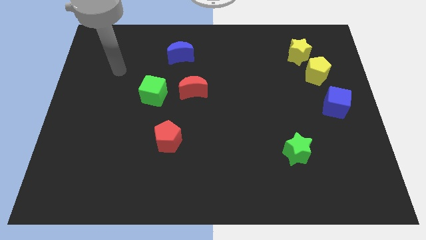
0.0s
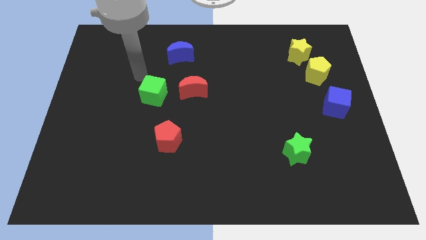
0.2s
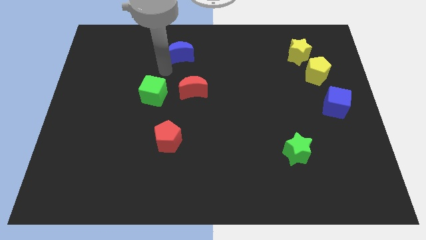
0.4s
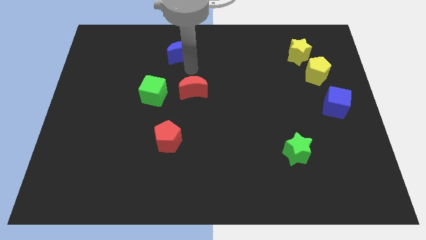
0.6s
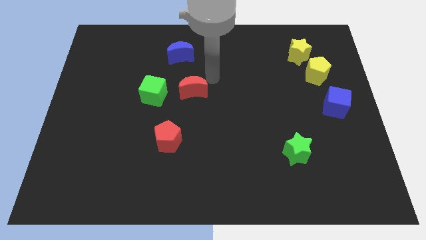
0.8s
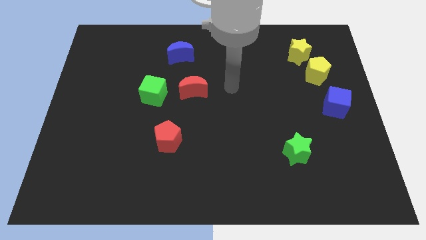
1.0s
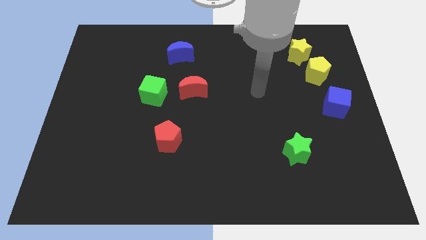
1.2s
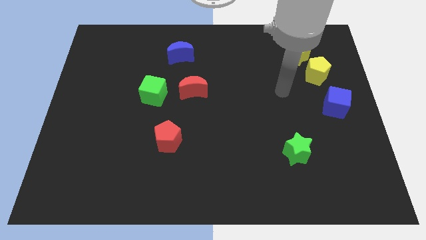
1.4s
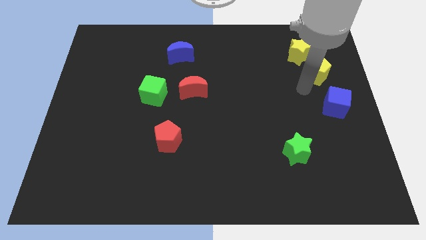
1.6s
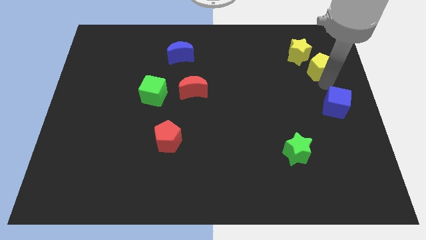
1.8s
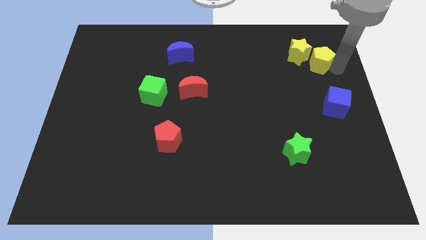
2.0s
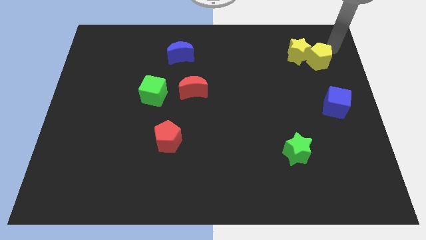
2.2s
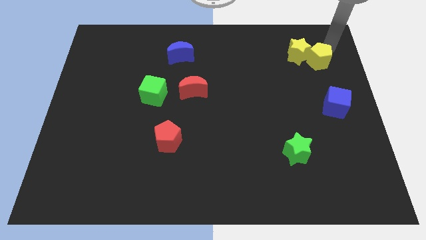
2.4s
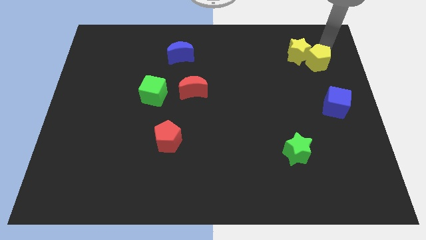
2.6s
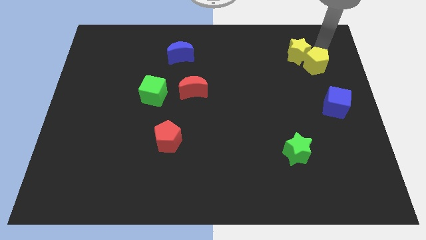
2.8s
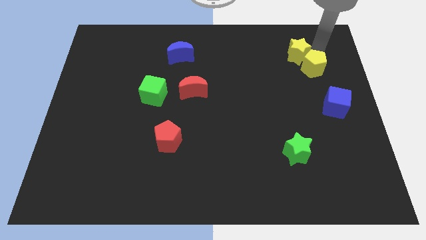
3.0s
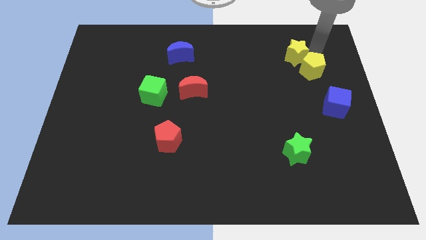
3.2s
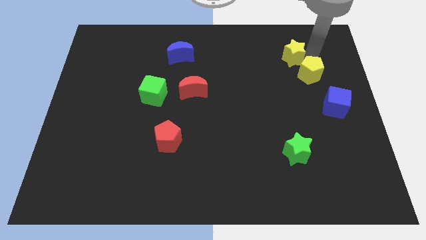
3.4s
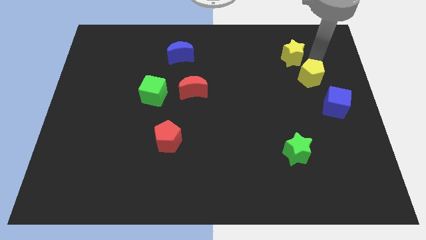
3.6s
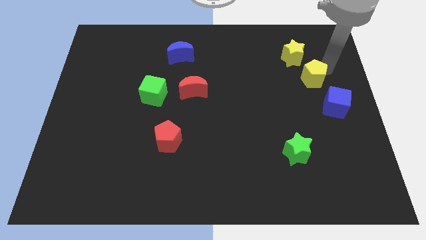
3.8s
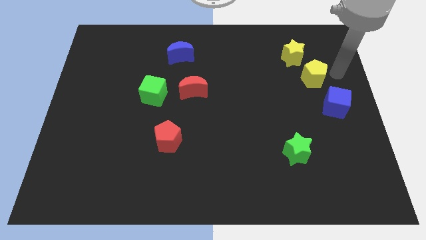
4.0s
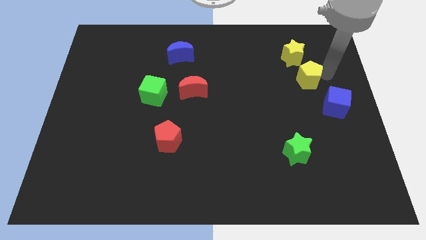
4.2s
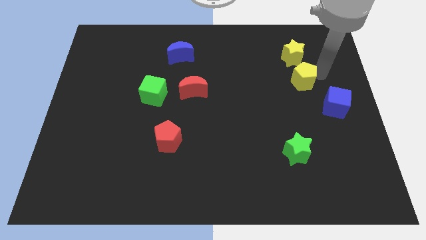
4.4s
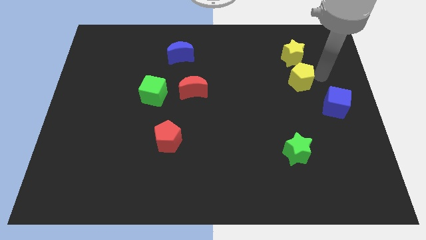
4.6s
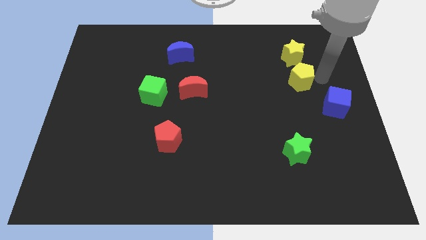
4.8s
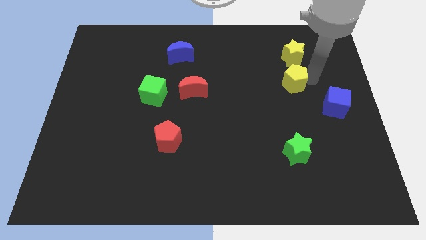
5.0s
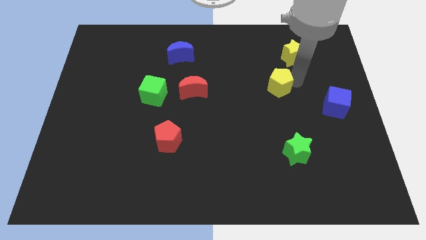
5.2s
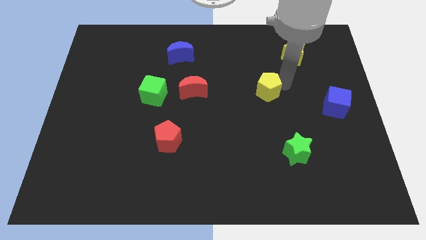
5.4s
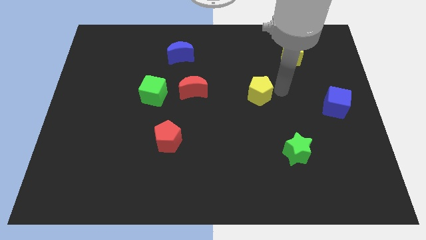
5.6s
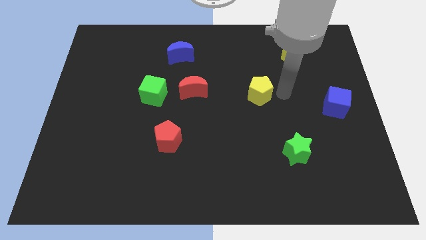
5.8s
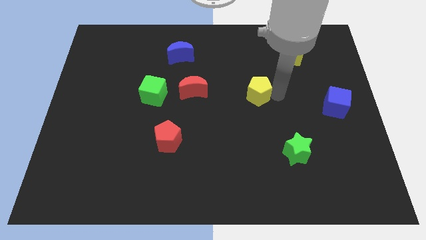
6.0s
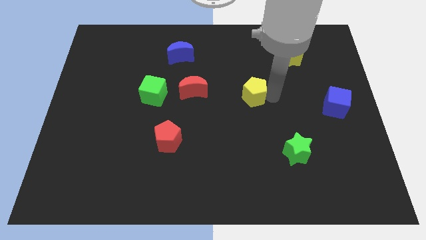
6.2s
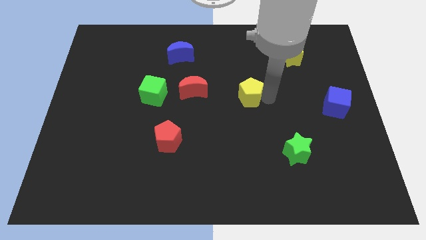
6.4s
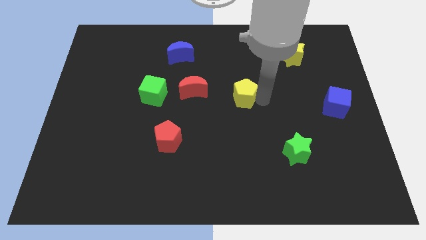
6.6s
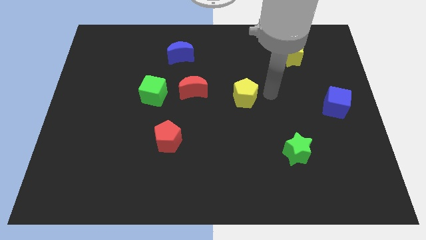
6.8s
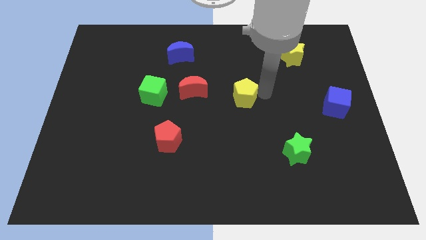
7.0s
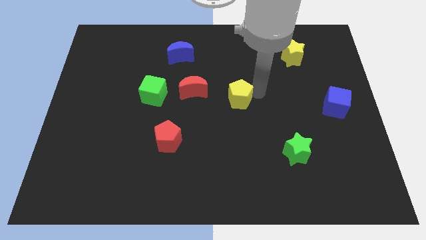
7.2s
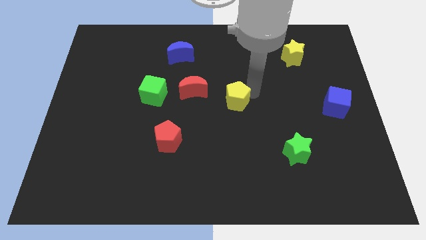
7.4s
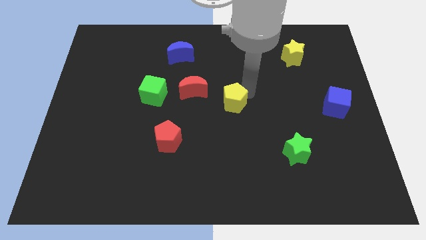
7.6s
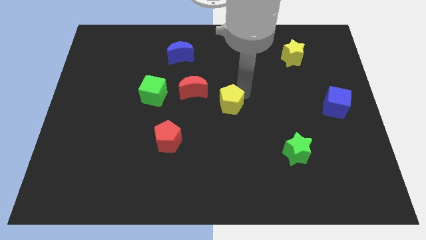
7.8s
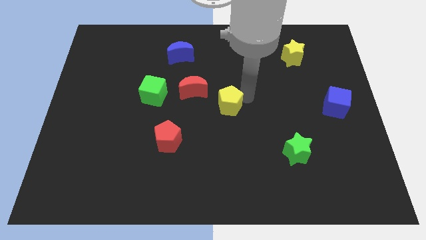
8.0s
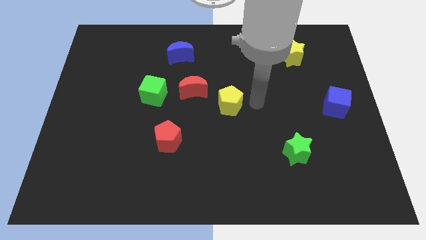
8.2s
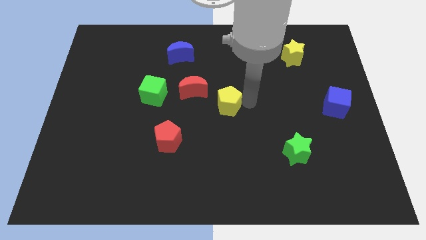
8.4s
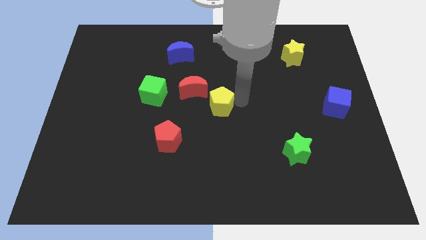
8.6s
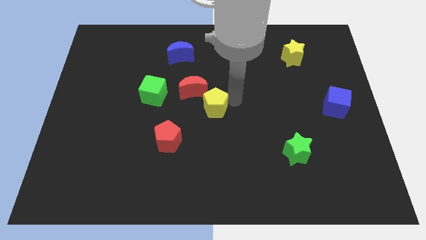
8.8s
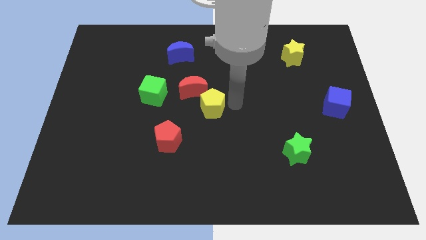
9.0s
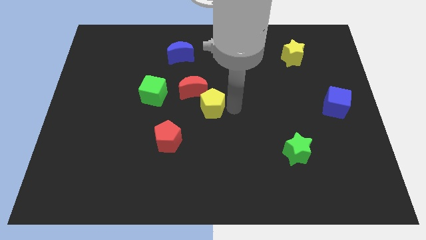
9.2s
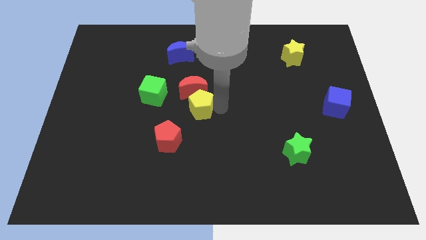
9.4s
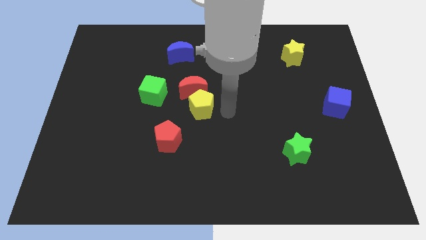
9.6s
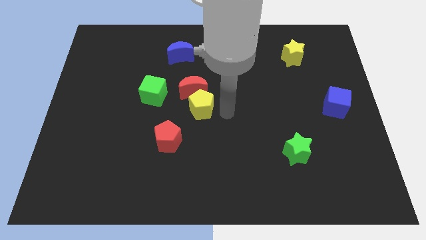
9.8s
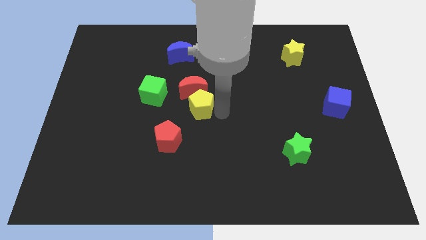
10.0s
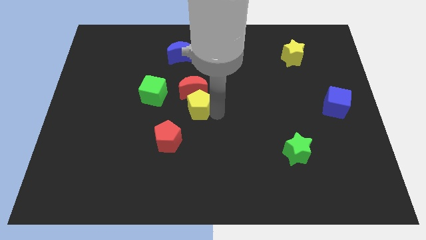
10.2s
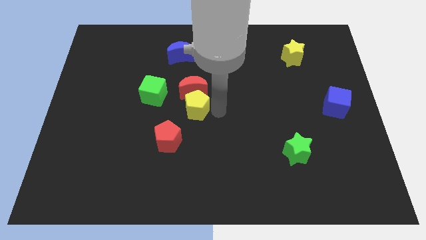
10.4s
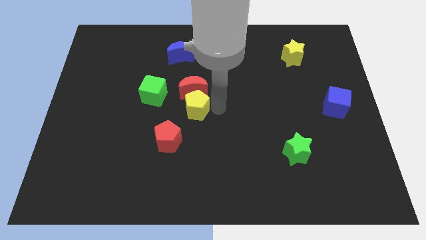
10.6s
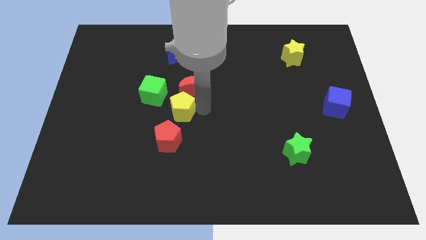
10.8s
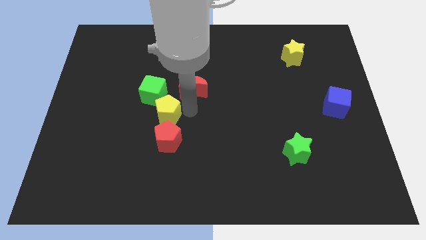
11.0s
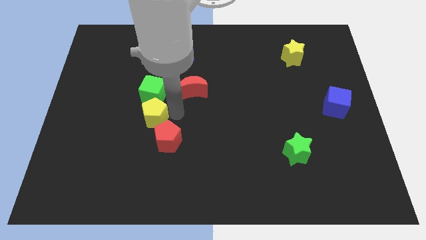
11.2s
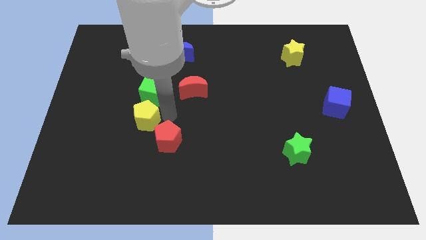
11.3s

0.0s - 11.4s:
put the yellow pentagon to the bottom left of the green cube
